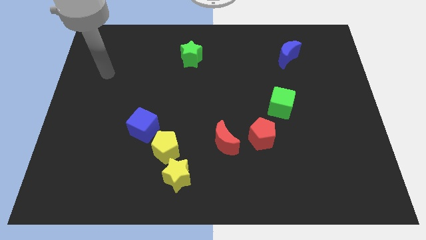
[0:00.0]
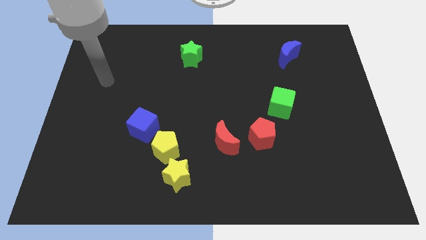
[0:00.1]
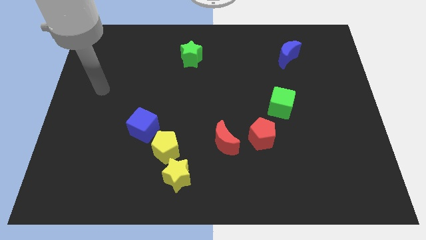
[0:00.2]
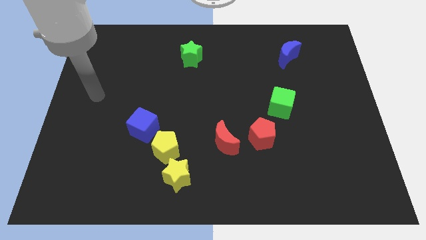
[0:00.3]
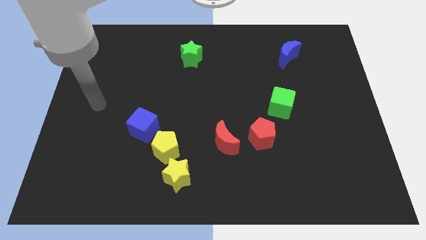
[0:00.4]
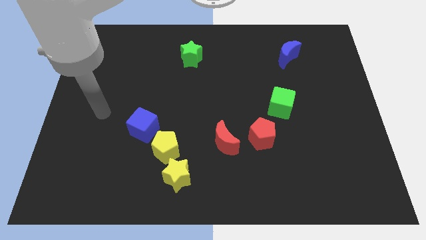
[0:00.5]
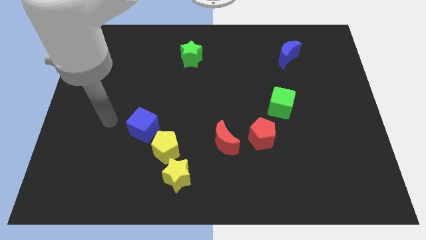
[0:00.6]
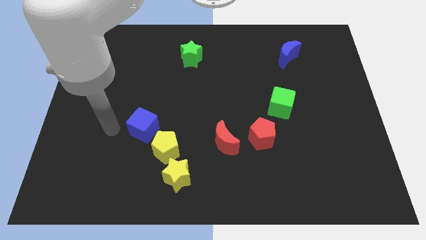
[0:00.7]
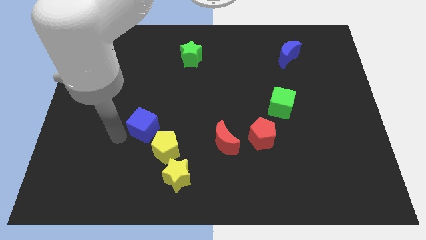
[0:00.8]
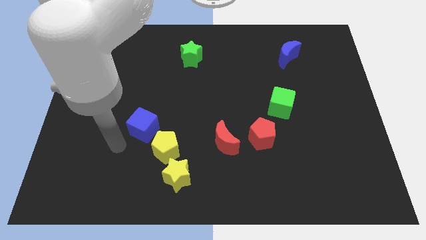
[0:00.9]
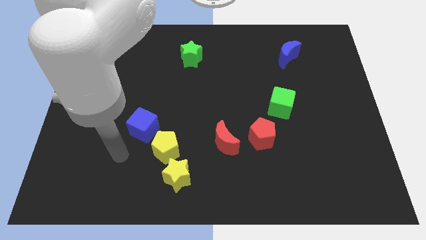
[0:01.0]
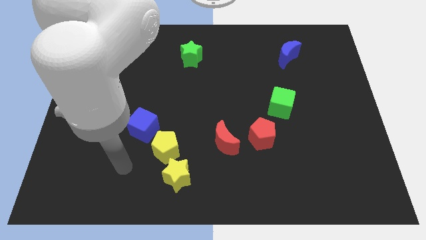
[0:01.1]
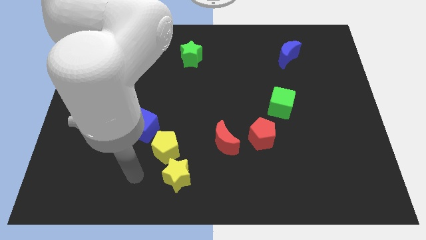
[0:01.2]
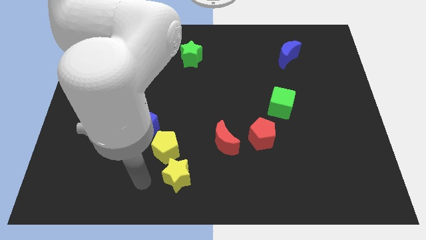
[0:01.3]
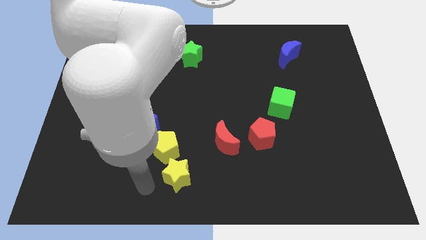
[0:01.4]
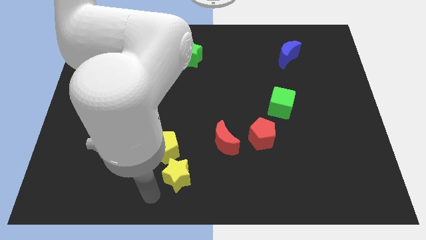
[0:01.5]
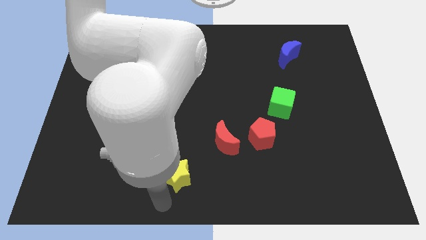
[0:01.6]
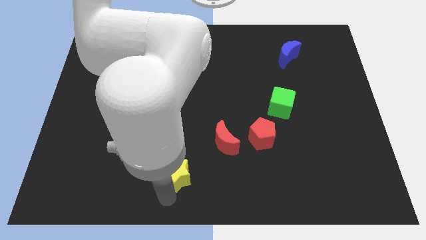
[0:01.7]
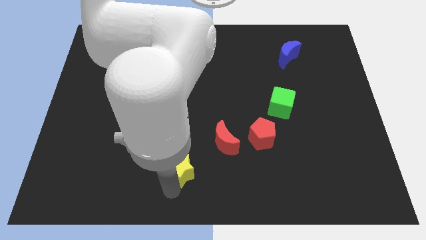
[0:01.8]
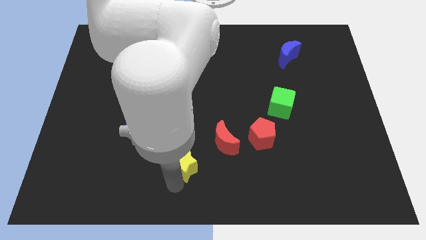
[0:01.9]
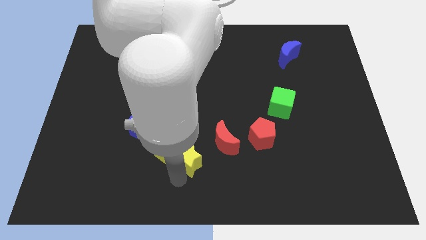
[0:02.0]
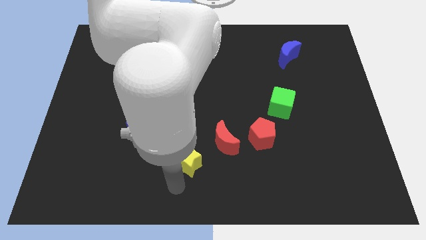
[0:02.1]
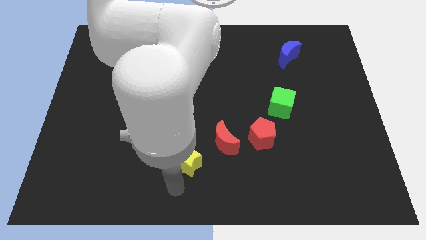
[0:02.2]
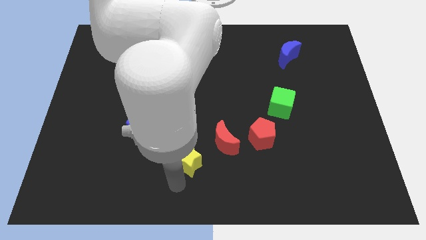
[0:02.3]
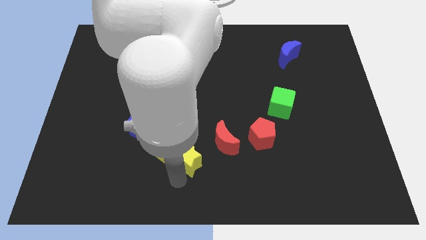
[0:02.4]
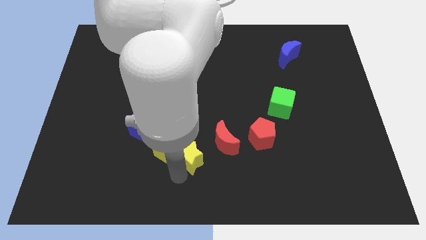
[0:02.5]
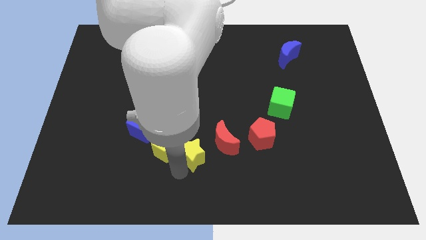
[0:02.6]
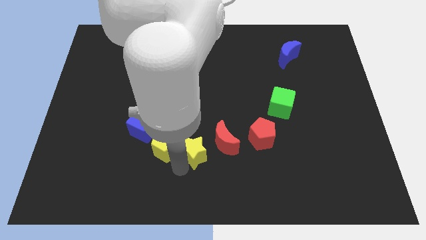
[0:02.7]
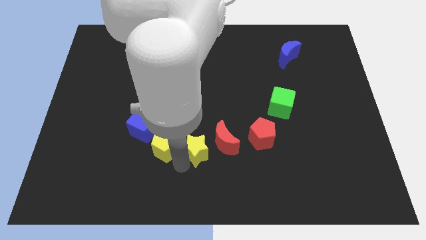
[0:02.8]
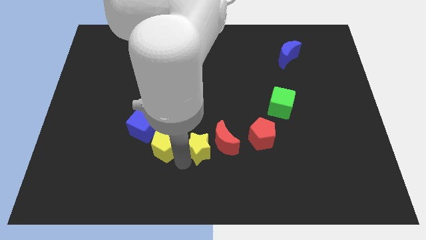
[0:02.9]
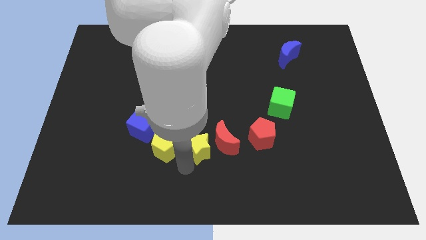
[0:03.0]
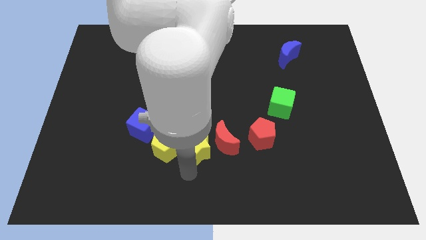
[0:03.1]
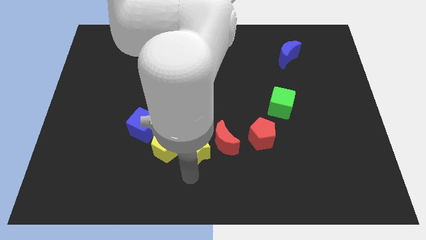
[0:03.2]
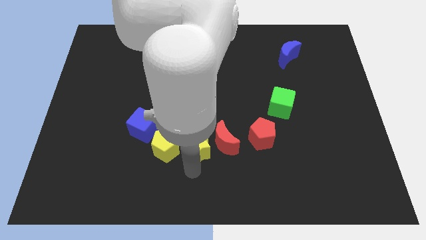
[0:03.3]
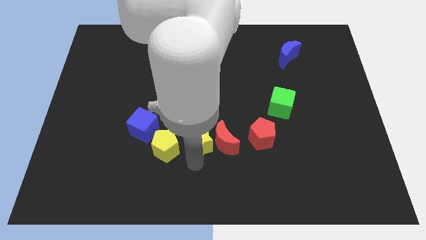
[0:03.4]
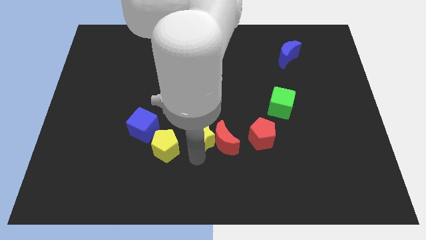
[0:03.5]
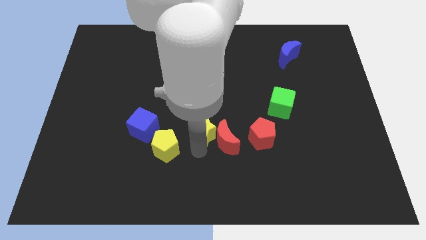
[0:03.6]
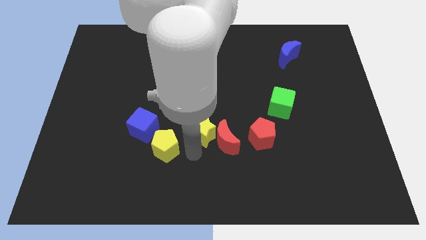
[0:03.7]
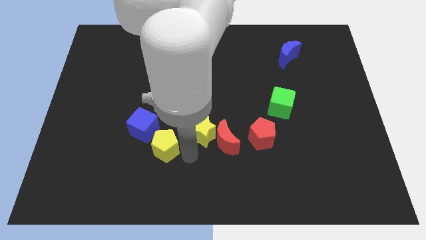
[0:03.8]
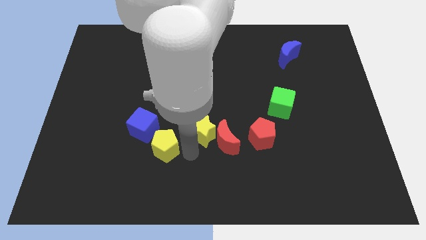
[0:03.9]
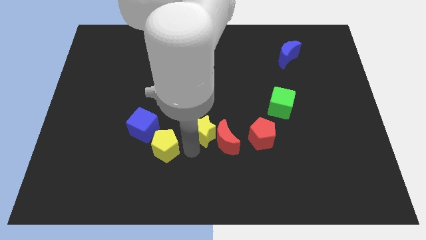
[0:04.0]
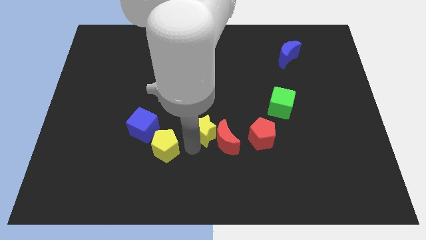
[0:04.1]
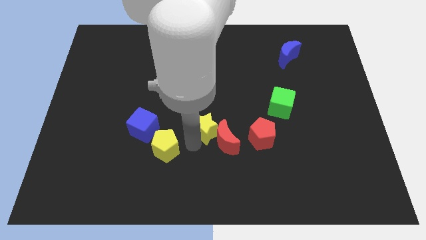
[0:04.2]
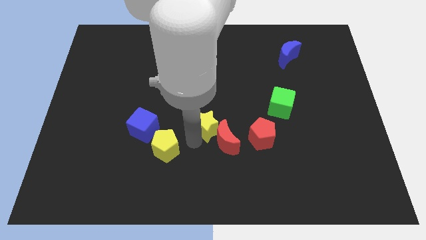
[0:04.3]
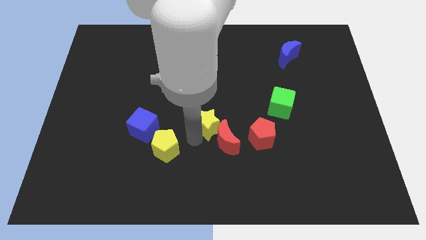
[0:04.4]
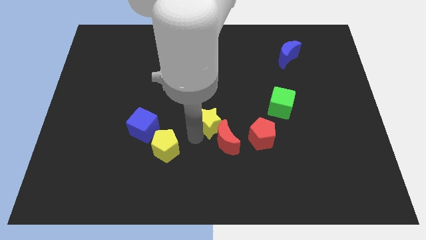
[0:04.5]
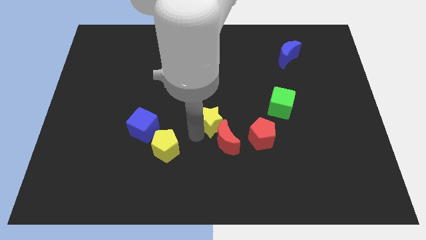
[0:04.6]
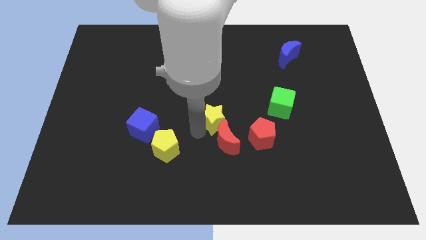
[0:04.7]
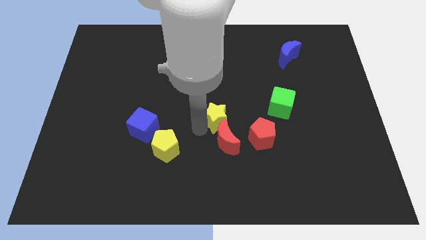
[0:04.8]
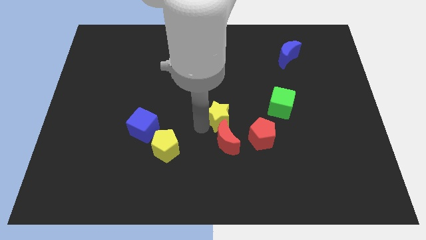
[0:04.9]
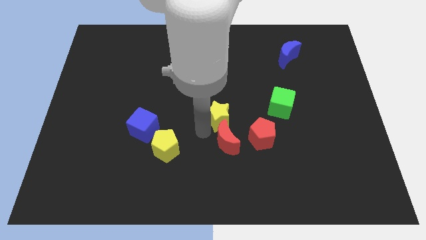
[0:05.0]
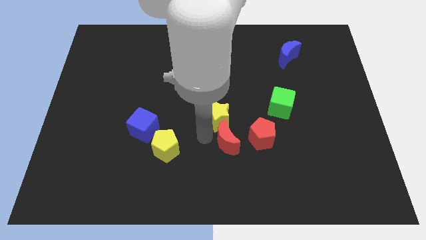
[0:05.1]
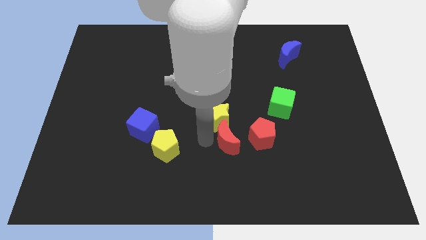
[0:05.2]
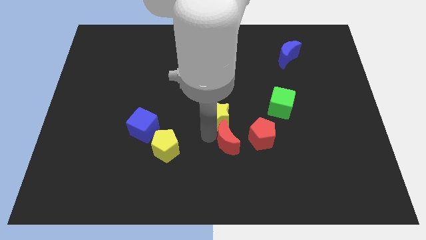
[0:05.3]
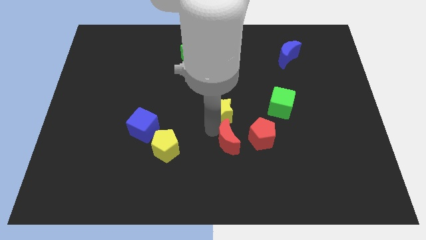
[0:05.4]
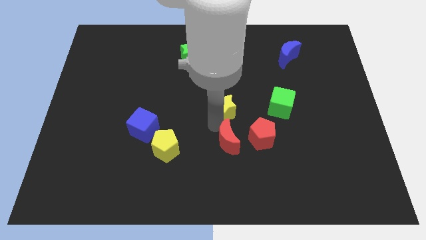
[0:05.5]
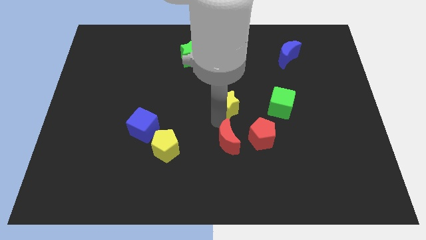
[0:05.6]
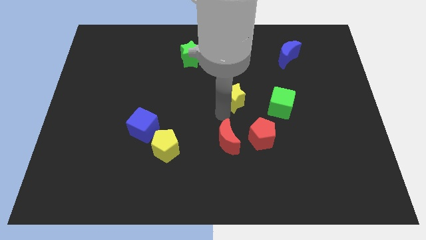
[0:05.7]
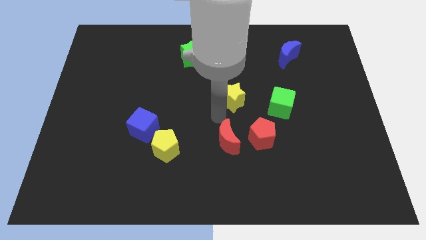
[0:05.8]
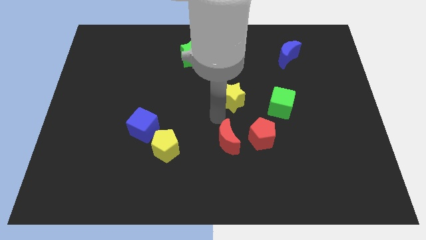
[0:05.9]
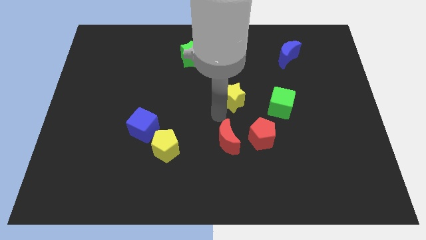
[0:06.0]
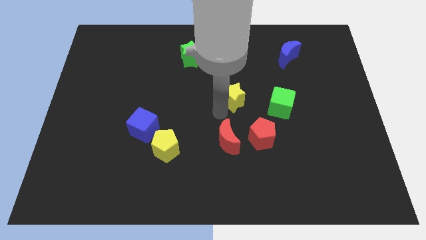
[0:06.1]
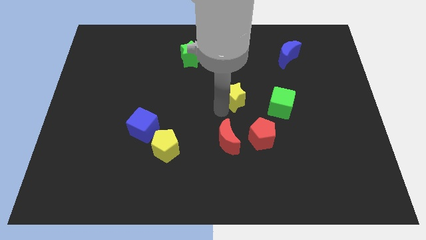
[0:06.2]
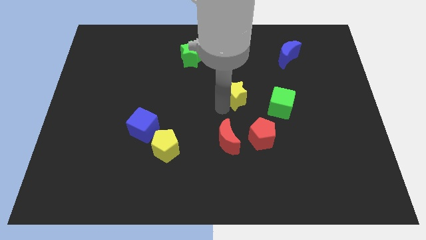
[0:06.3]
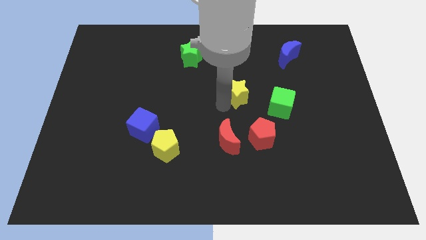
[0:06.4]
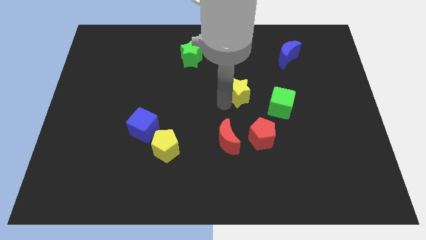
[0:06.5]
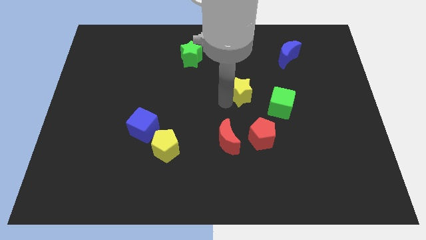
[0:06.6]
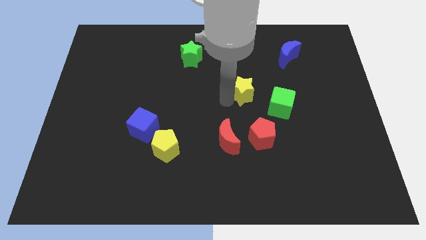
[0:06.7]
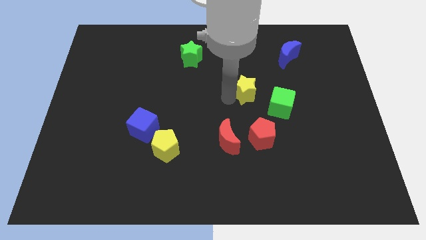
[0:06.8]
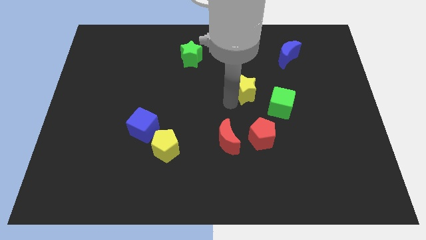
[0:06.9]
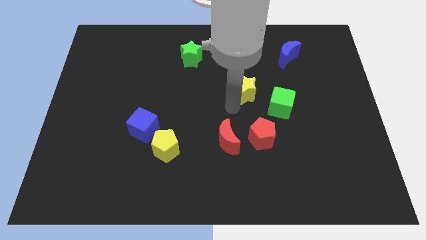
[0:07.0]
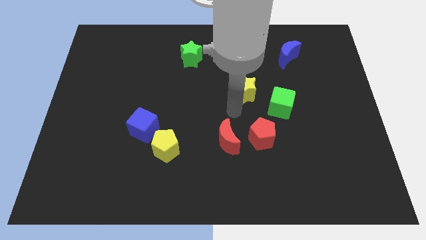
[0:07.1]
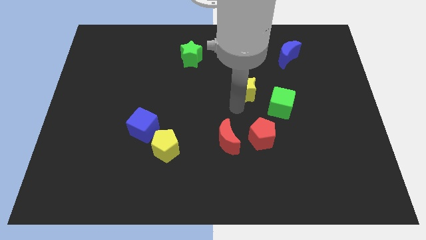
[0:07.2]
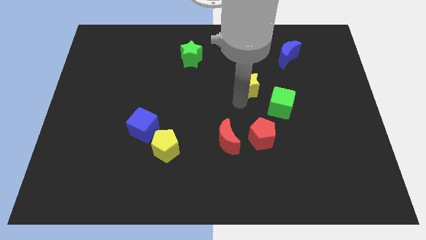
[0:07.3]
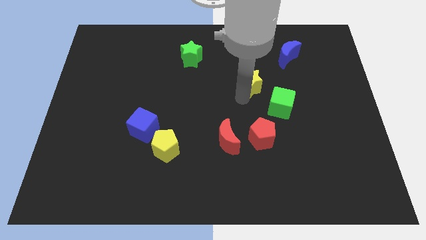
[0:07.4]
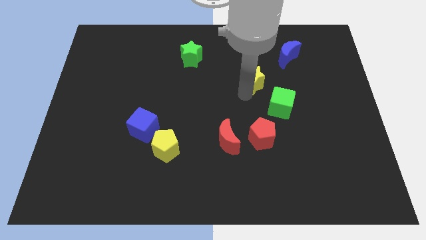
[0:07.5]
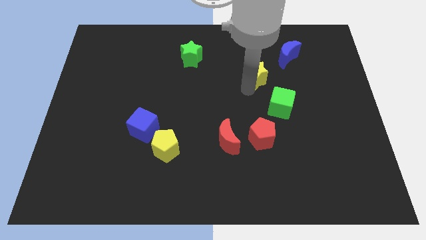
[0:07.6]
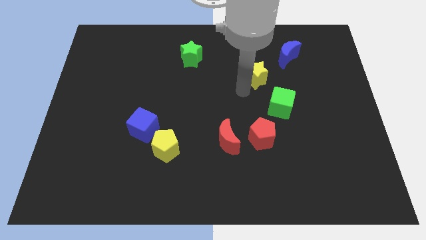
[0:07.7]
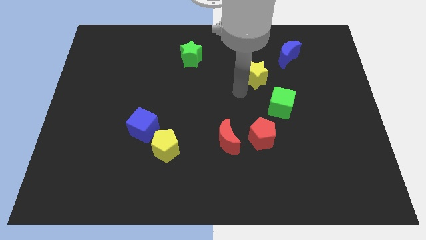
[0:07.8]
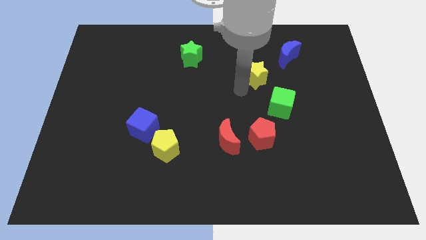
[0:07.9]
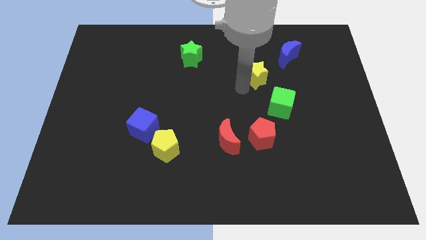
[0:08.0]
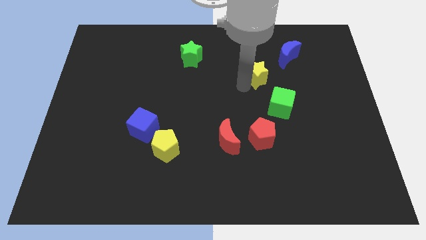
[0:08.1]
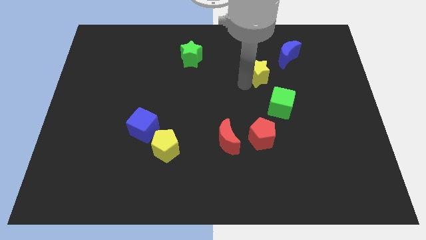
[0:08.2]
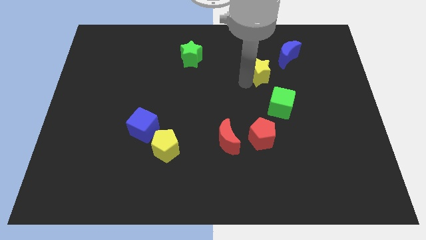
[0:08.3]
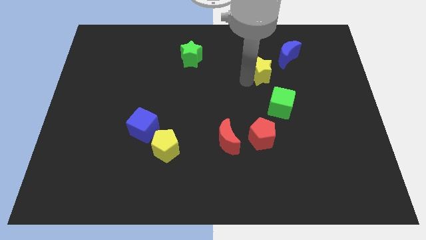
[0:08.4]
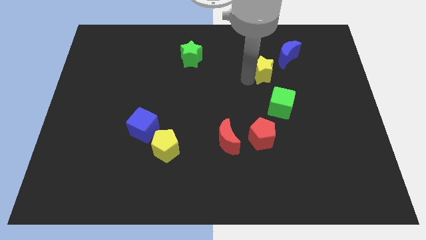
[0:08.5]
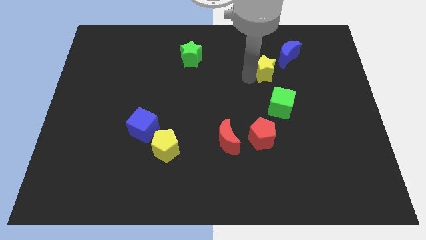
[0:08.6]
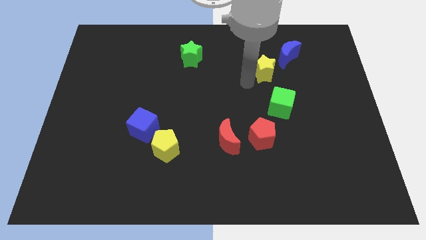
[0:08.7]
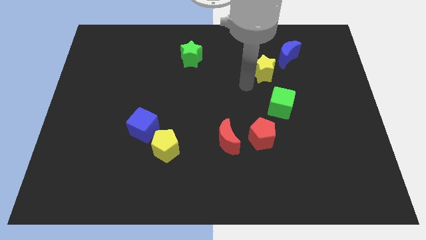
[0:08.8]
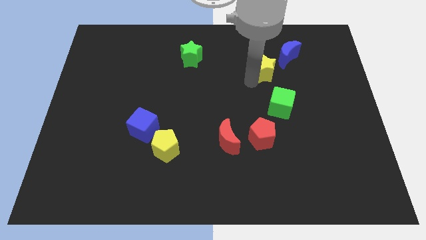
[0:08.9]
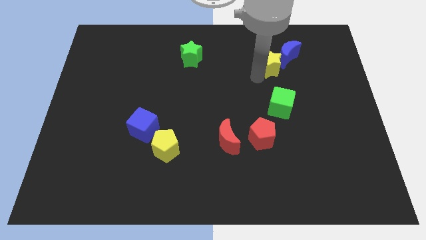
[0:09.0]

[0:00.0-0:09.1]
put the yellow star towards the blue moon
